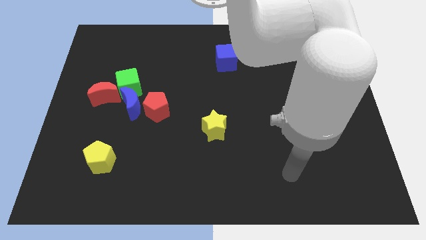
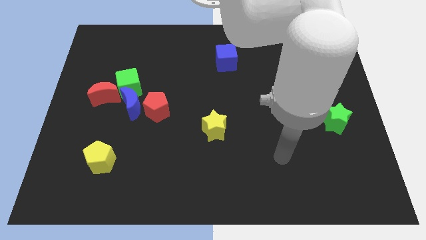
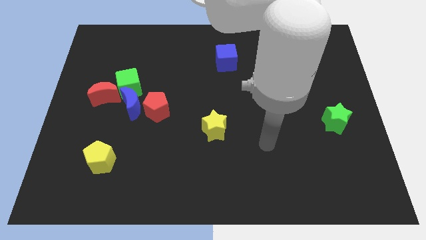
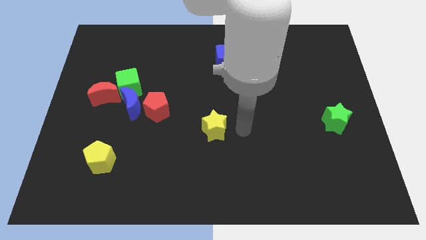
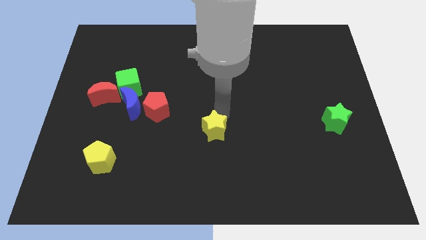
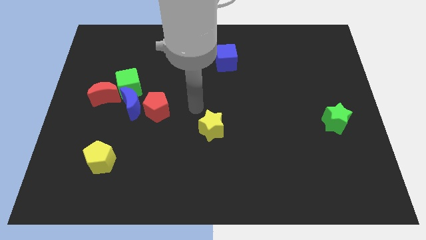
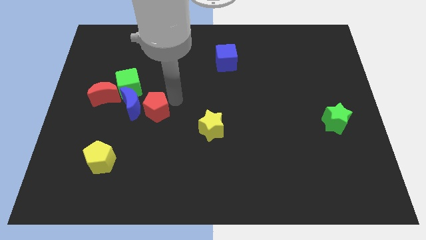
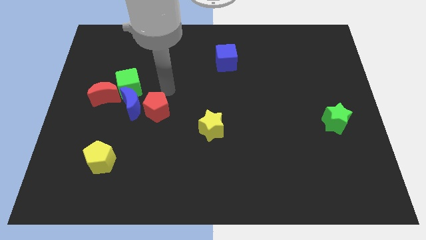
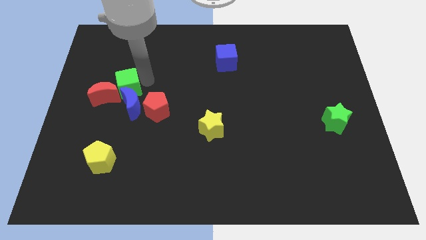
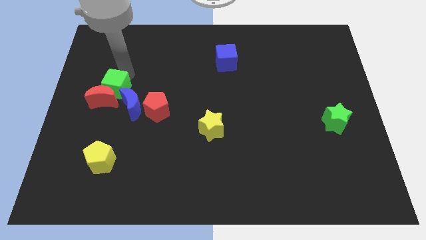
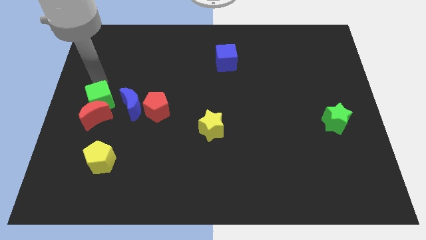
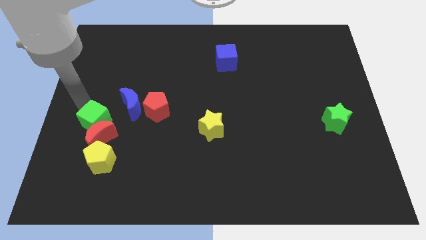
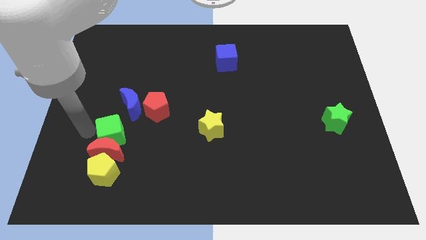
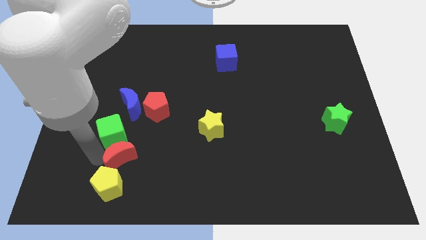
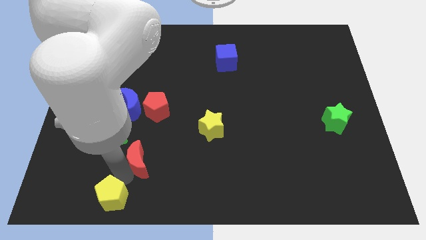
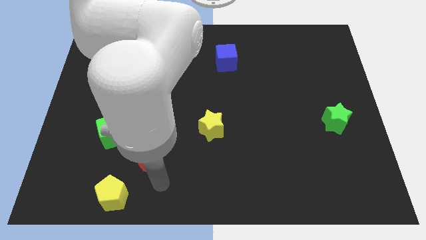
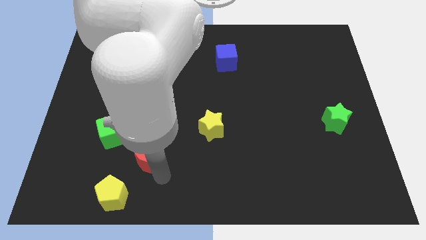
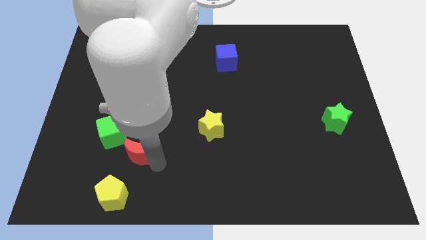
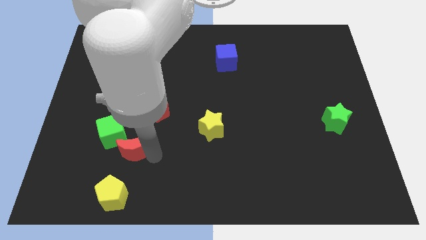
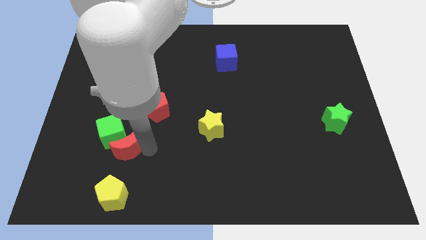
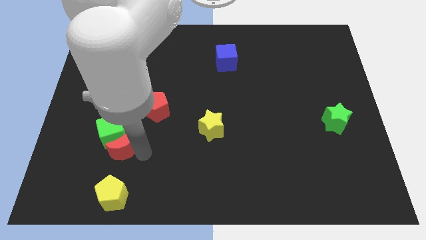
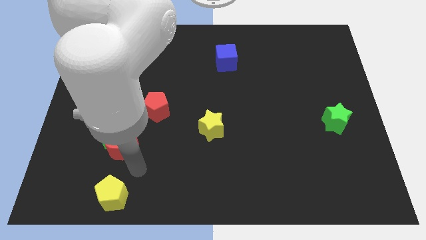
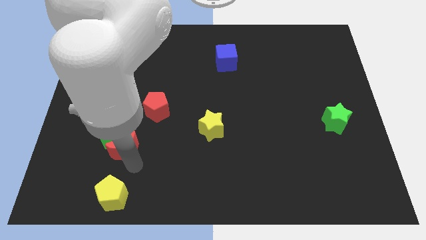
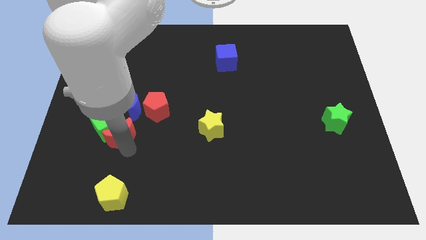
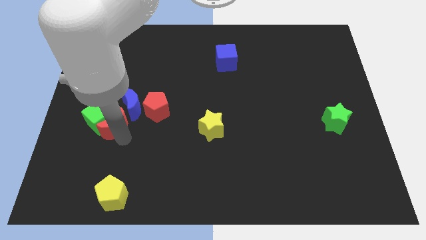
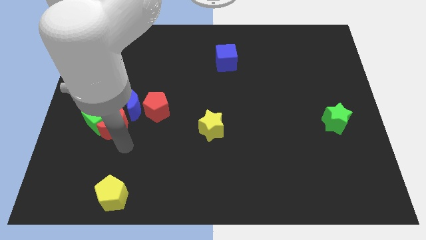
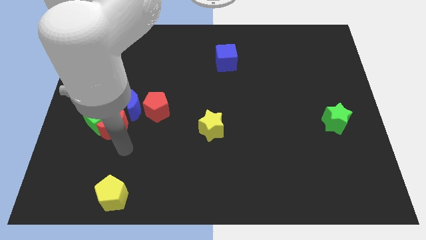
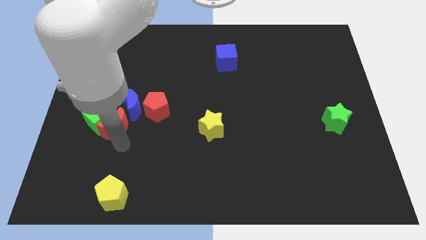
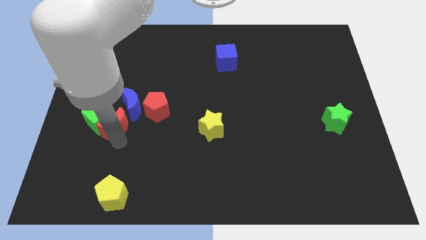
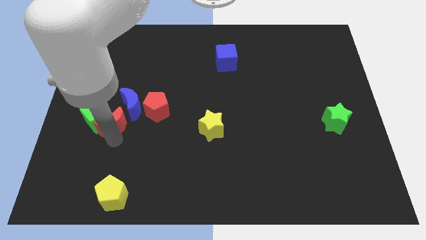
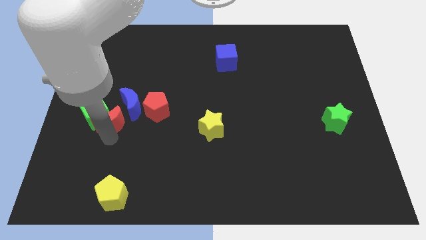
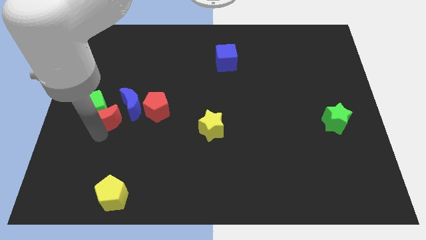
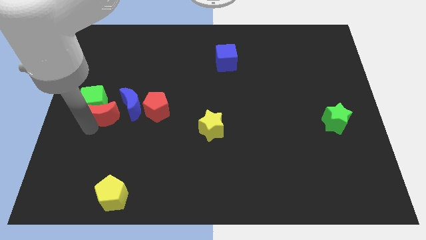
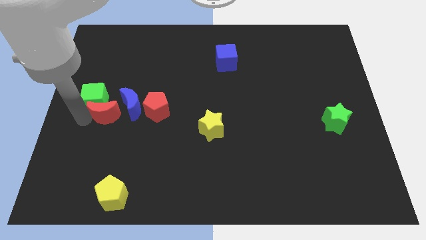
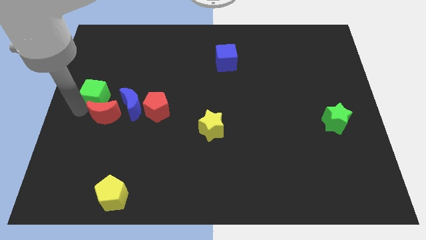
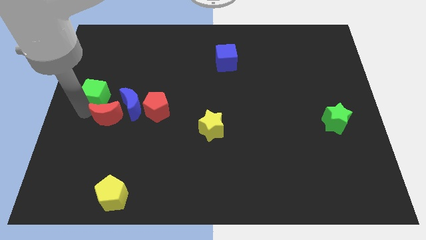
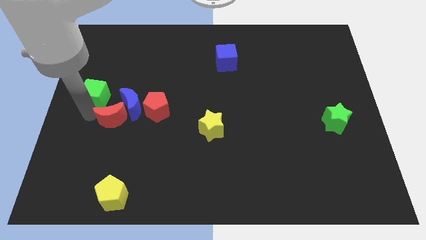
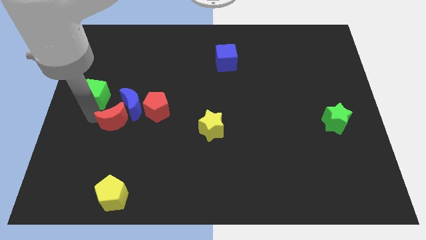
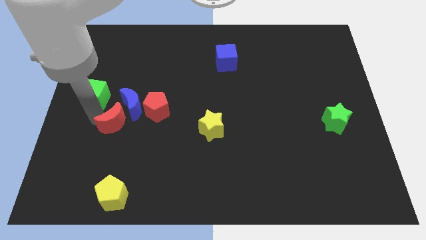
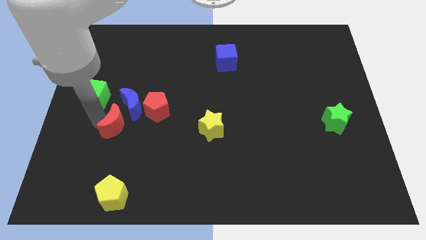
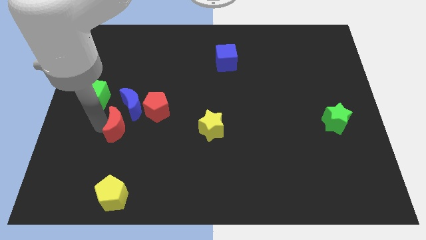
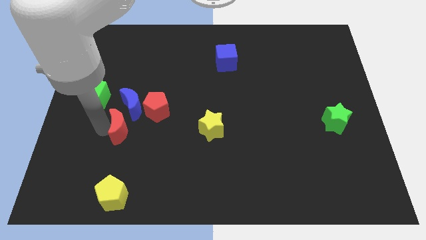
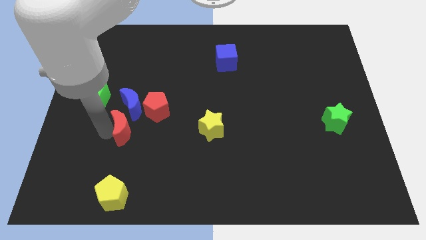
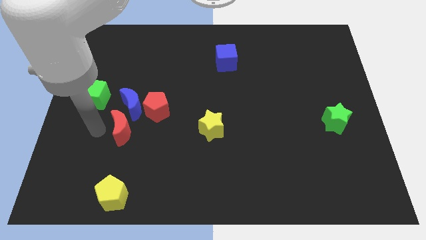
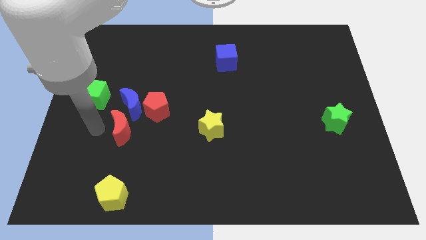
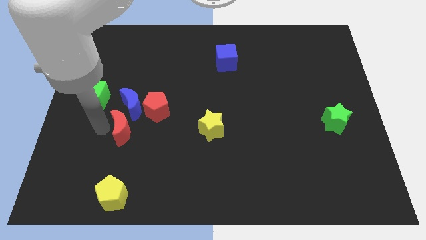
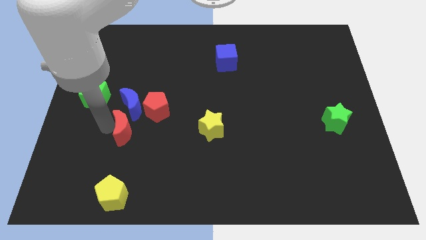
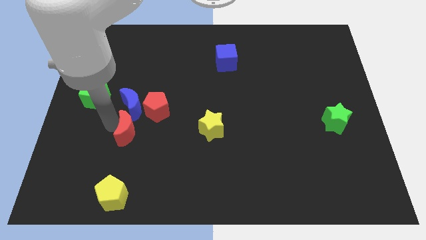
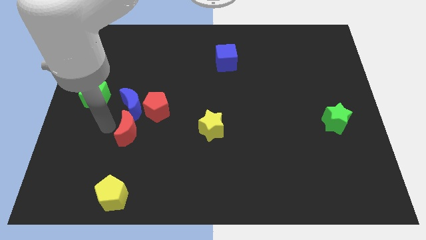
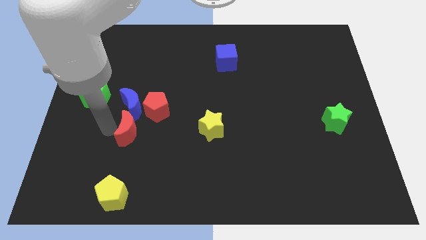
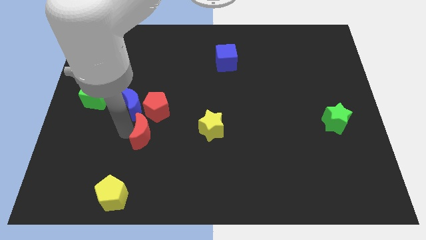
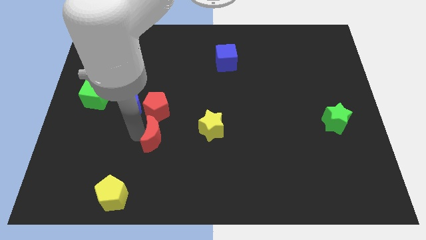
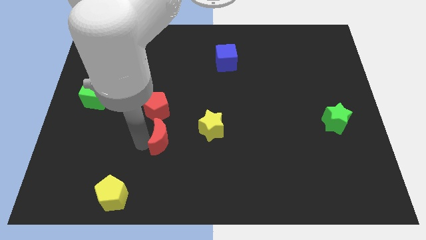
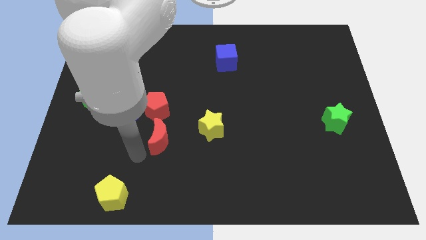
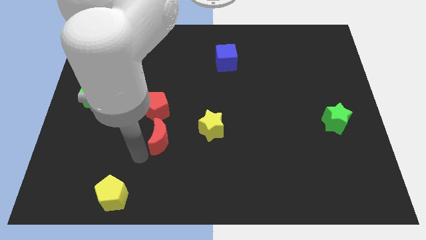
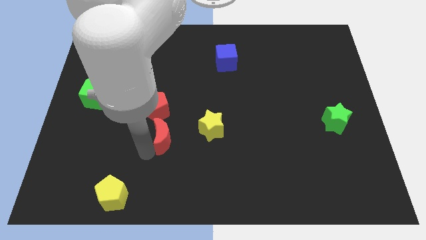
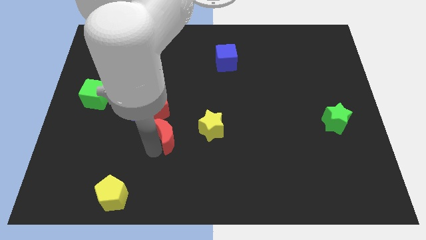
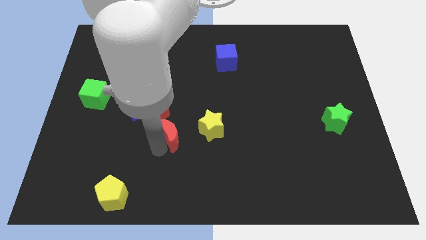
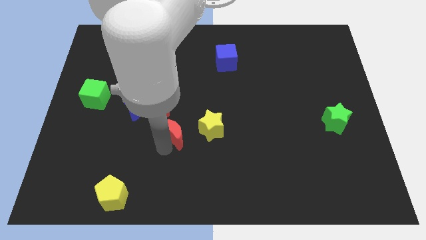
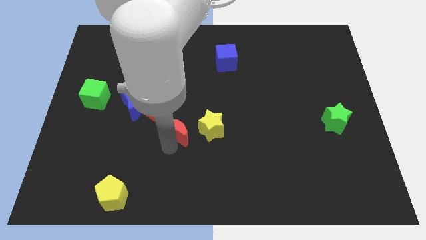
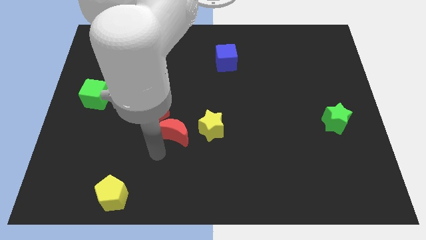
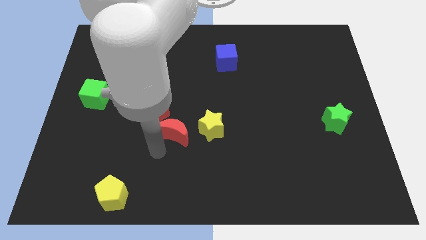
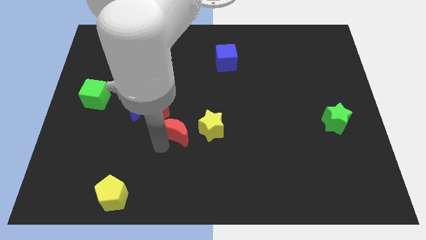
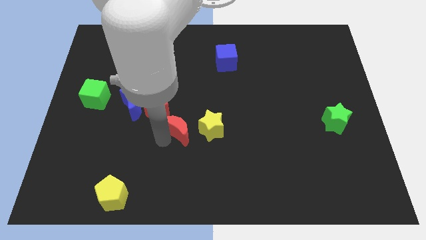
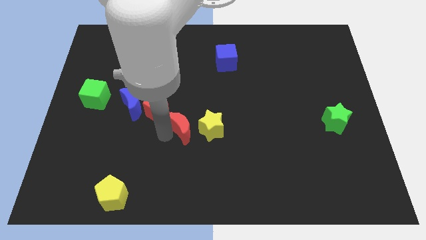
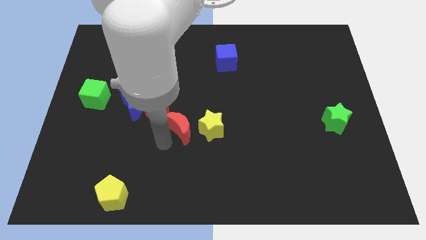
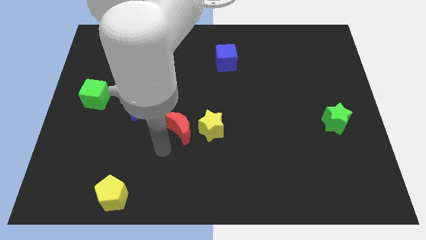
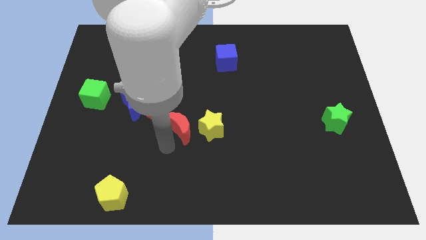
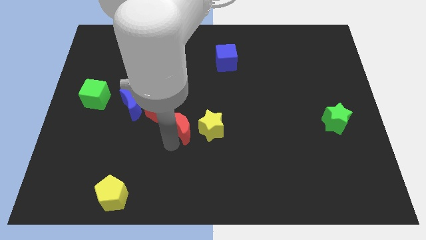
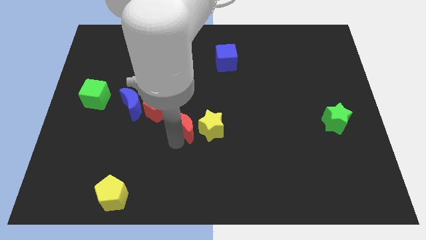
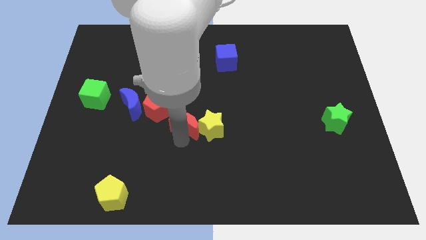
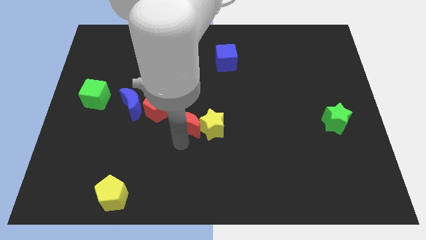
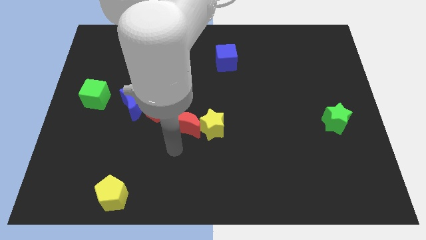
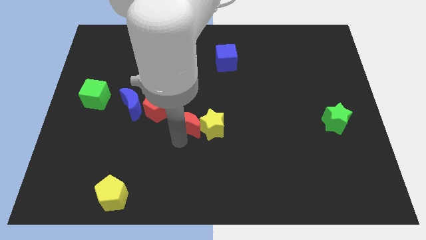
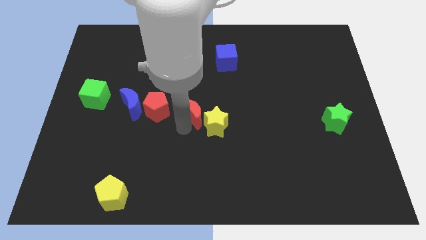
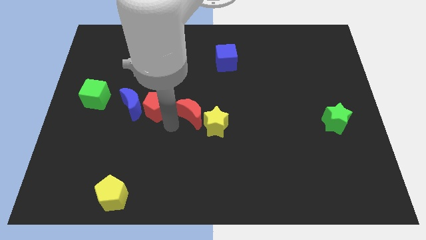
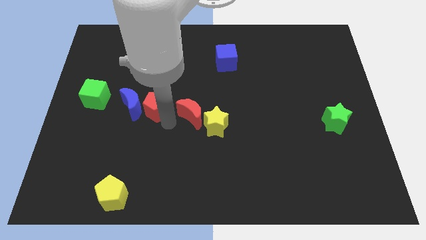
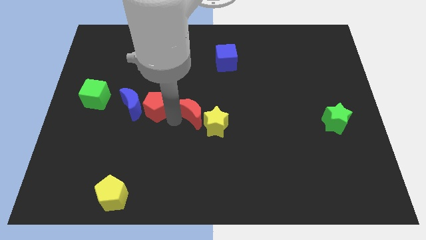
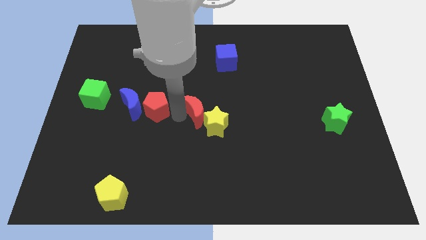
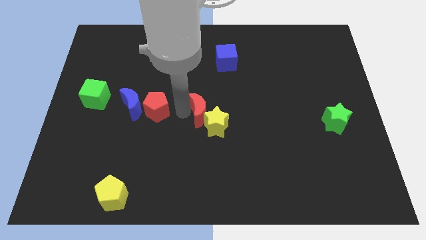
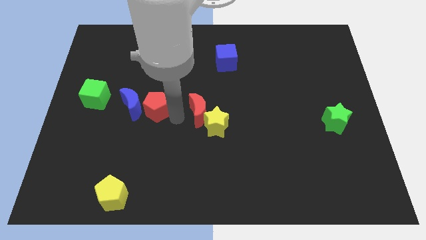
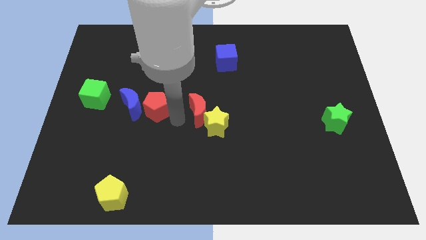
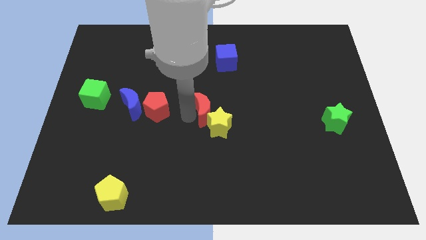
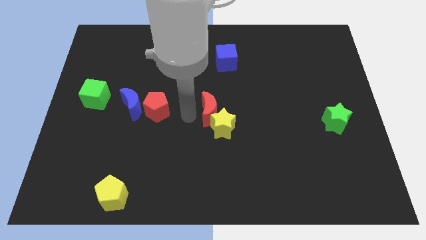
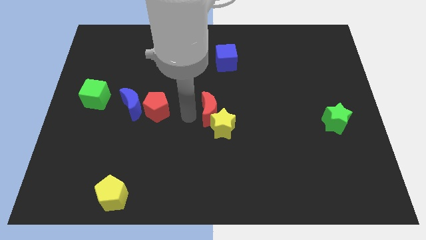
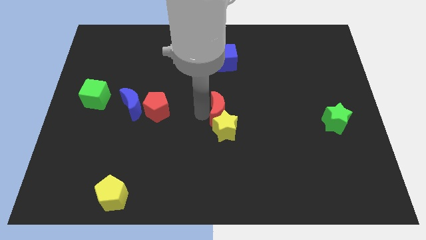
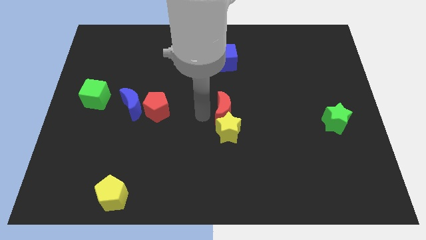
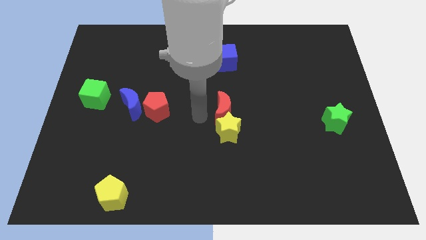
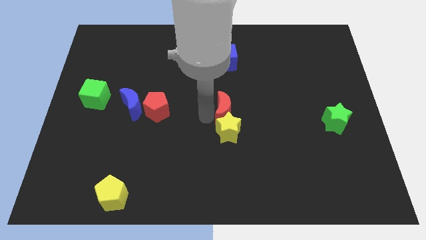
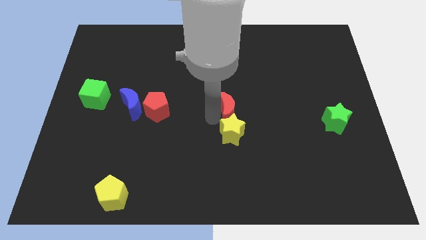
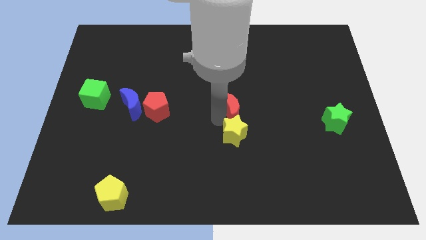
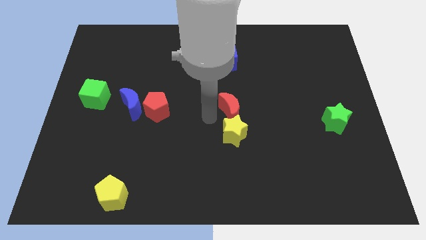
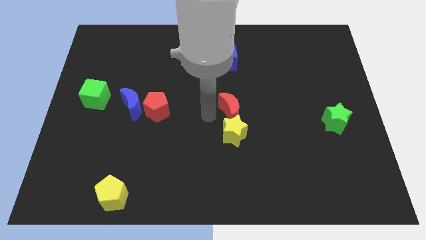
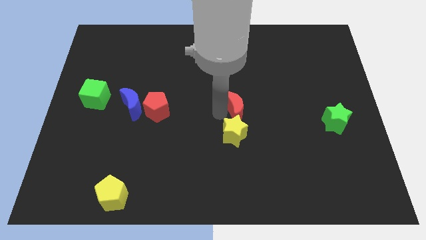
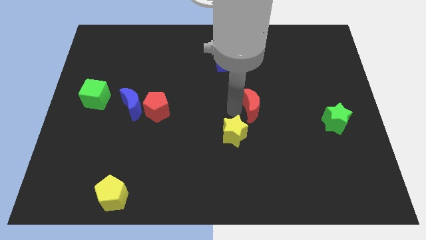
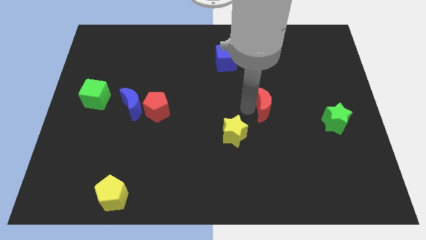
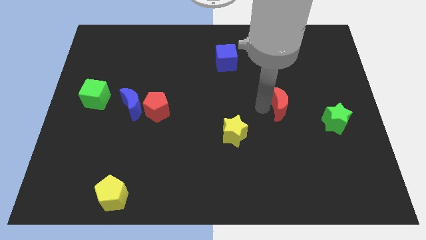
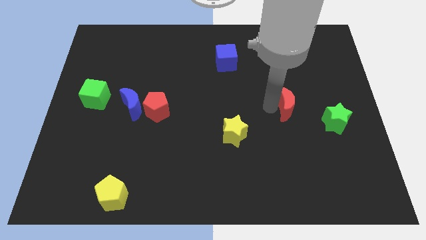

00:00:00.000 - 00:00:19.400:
move the red moon diagonally up and to the left of the green star
